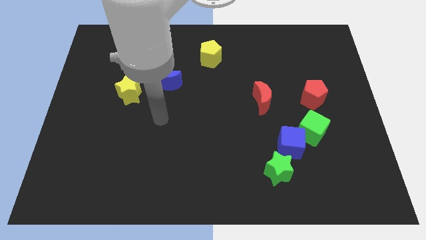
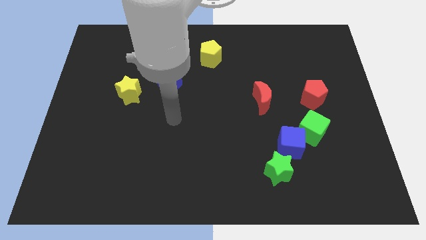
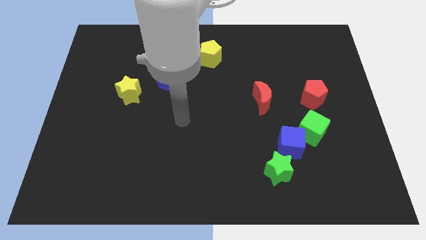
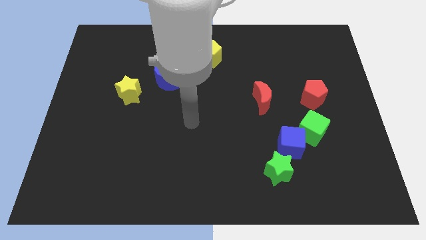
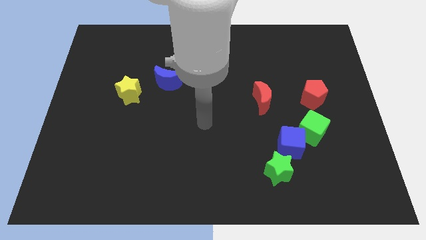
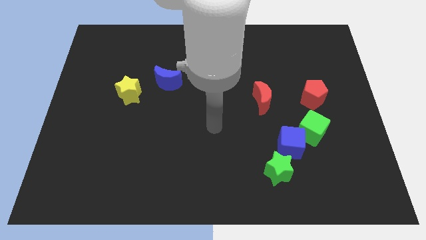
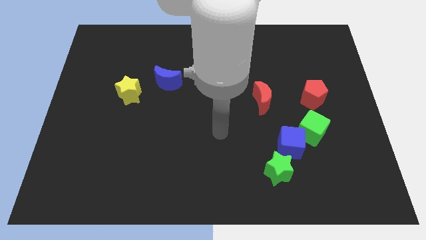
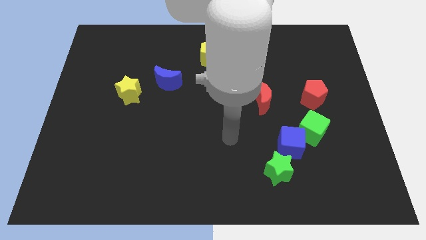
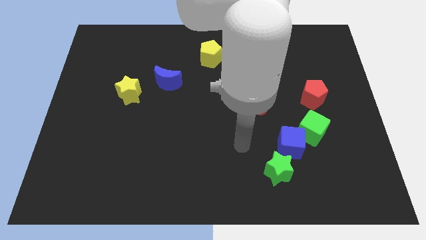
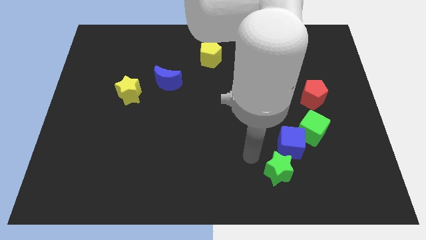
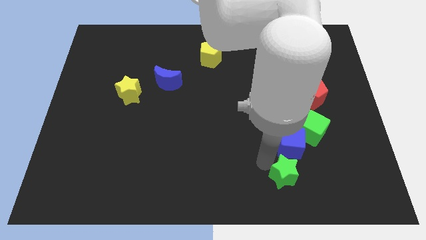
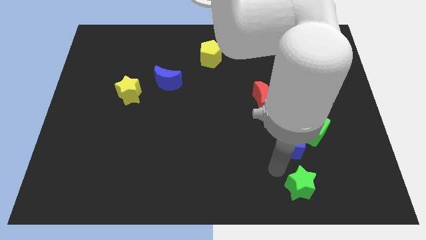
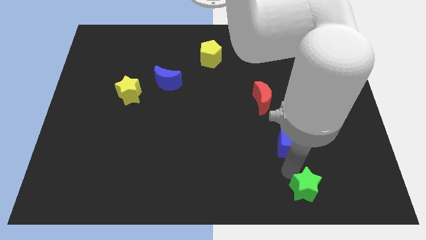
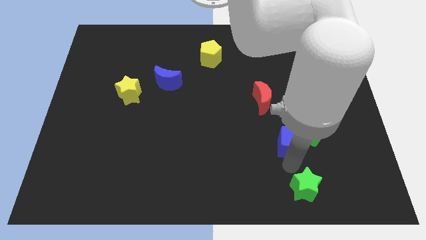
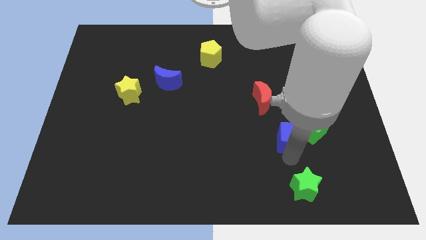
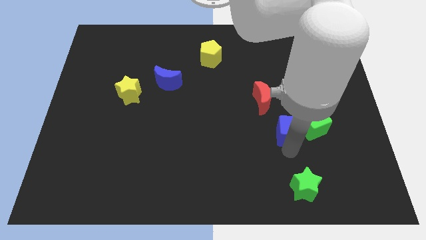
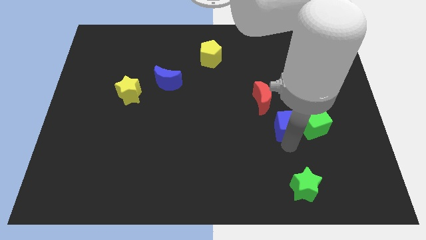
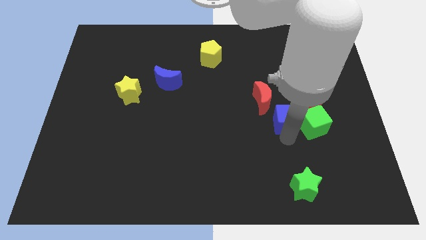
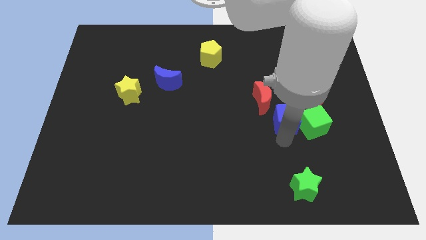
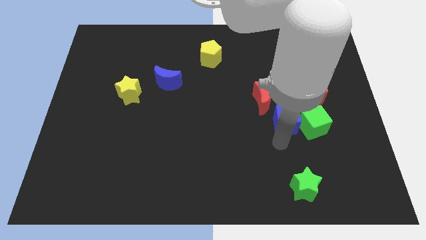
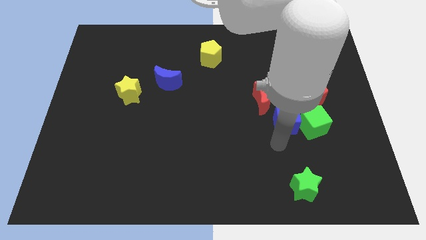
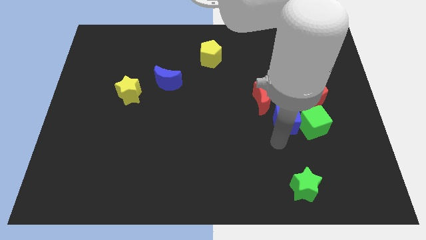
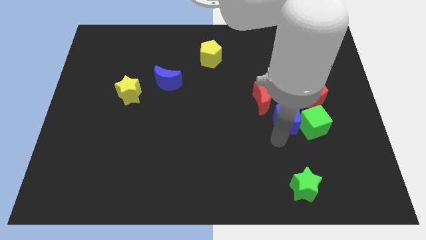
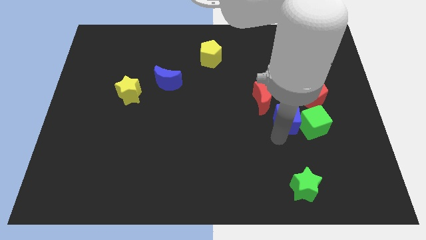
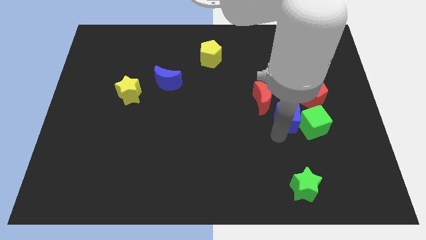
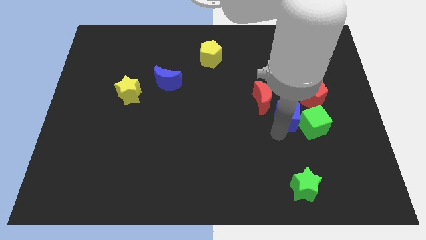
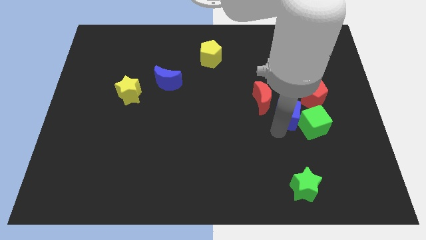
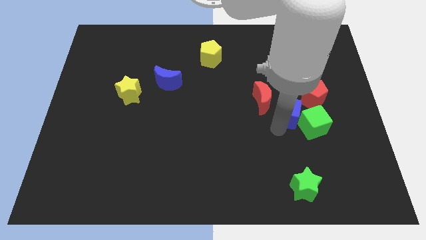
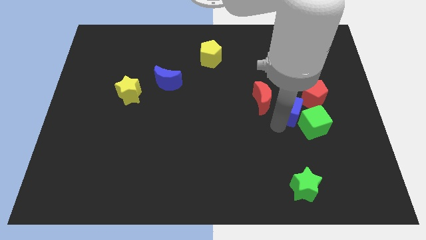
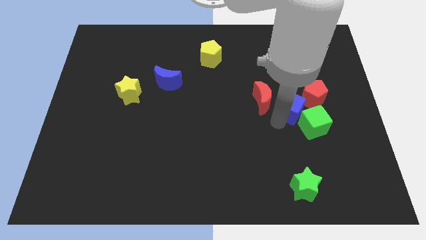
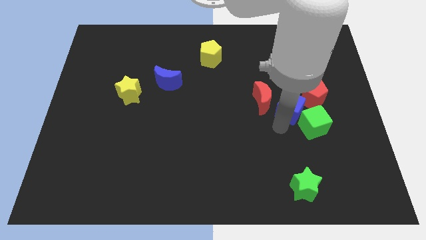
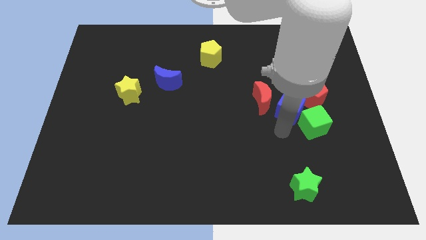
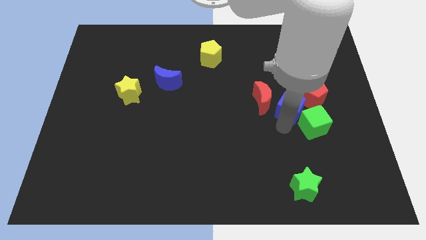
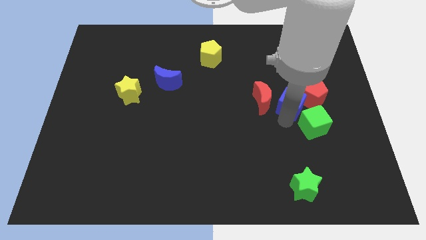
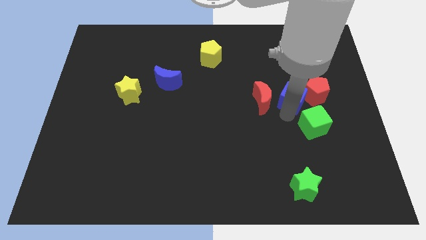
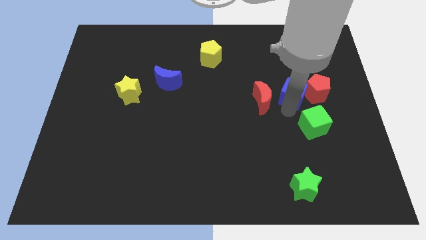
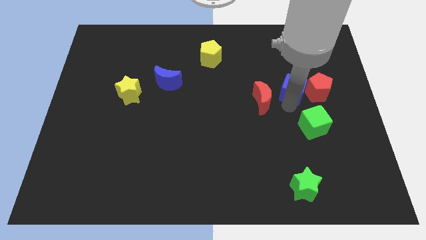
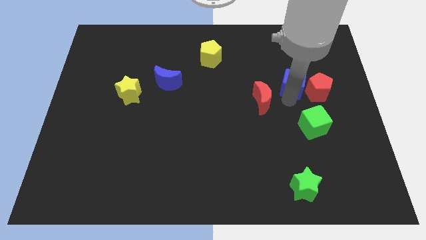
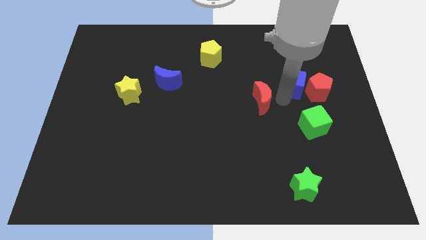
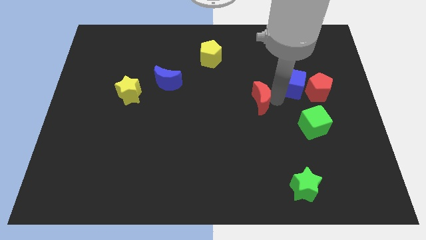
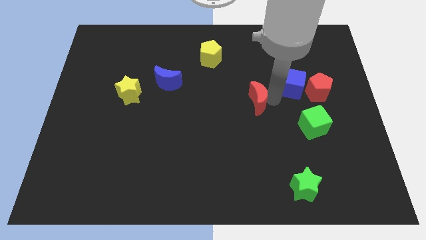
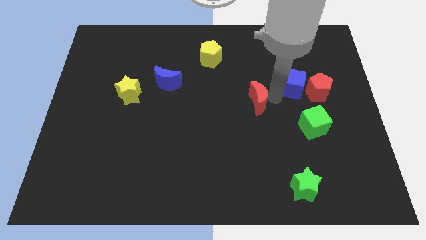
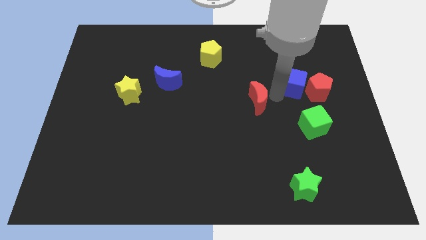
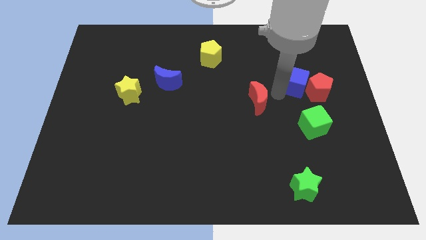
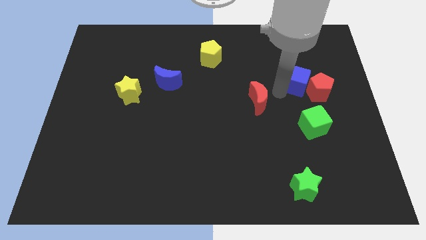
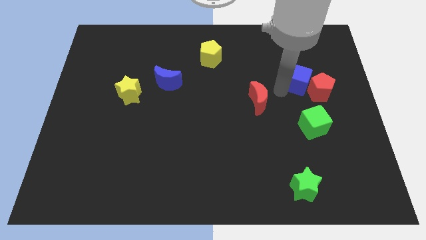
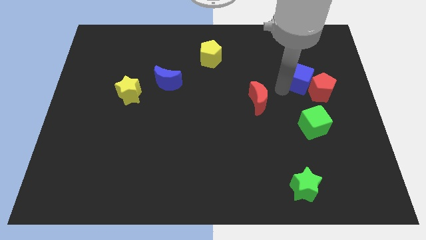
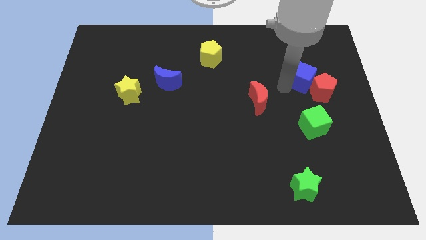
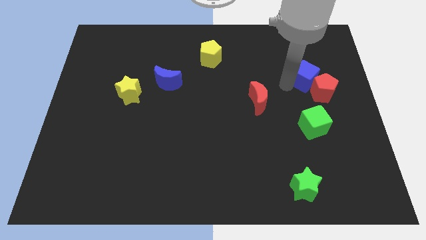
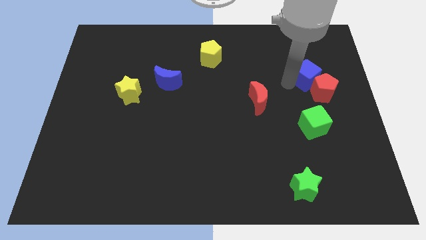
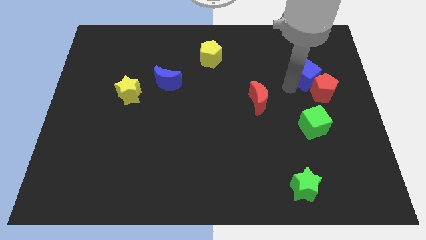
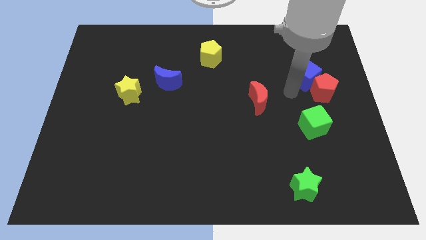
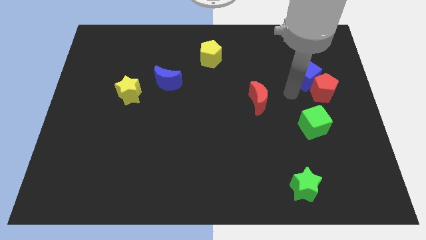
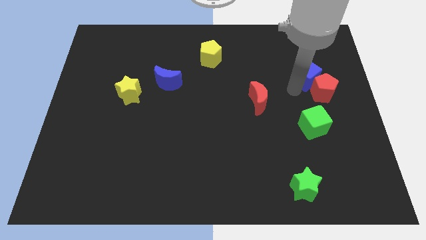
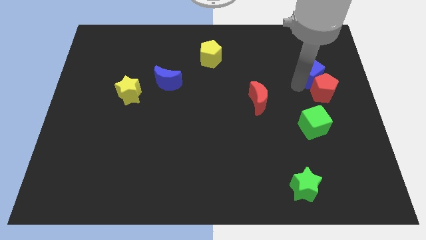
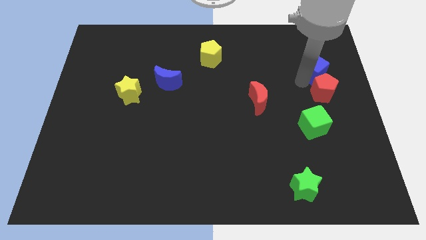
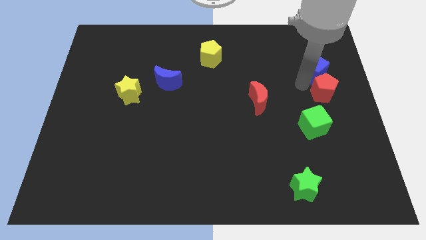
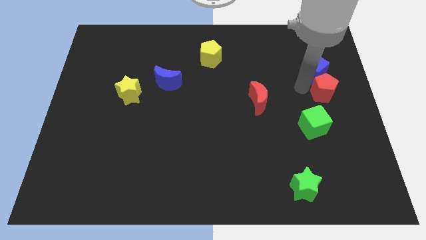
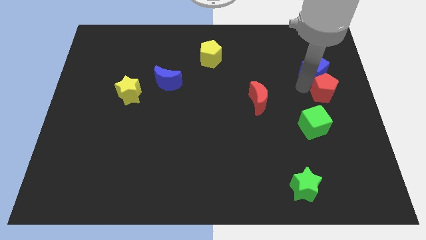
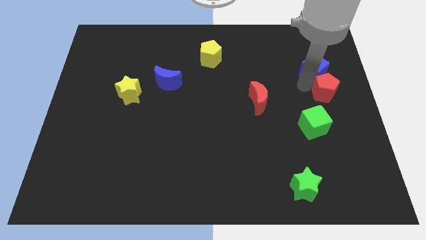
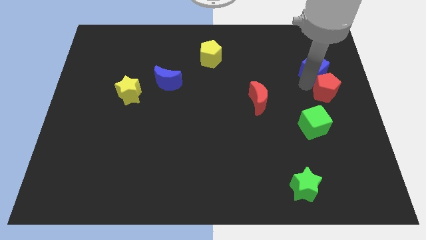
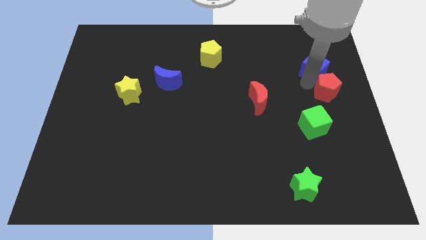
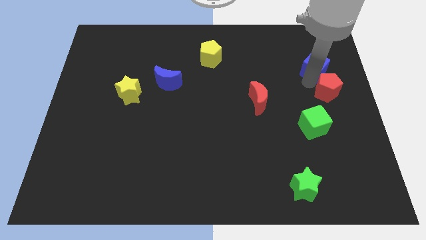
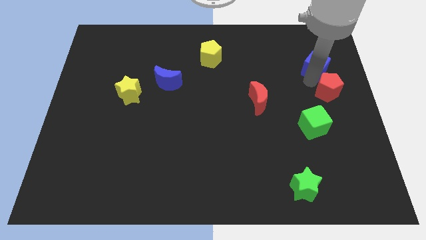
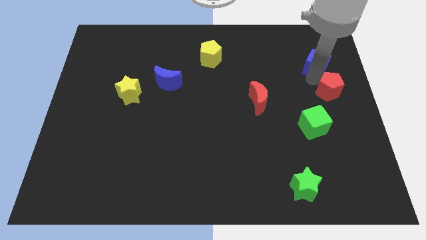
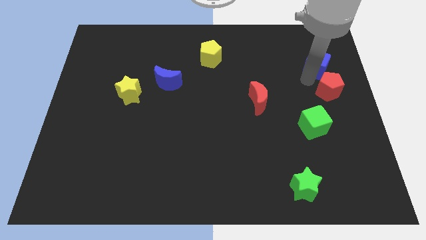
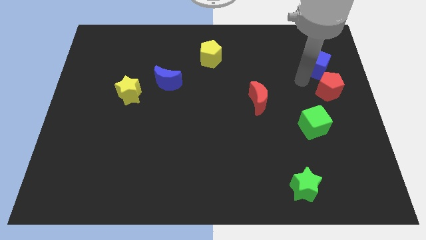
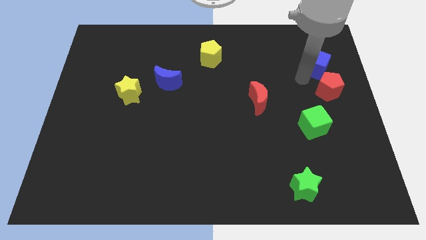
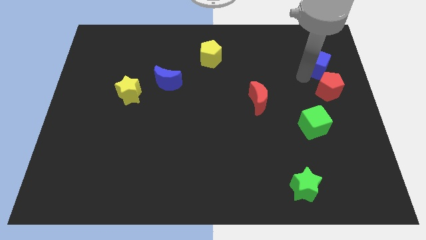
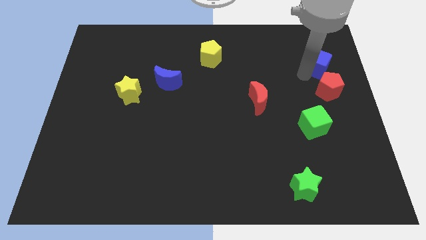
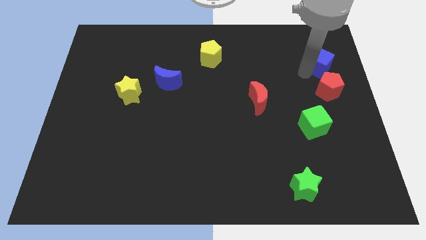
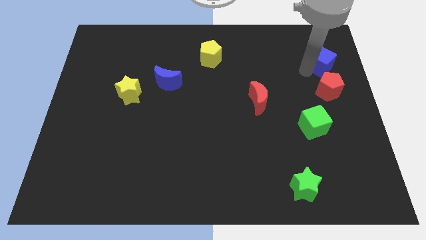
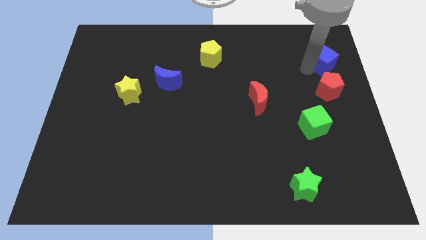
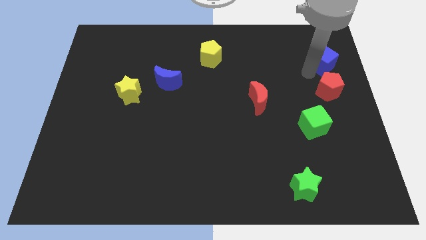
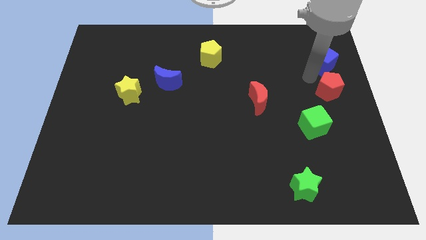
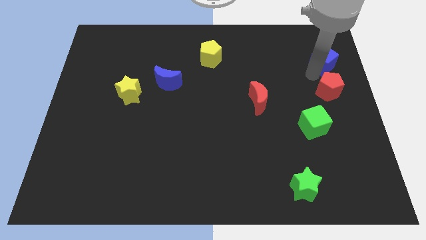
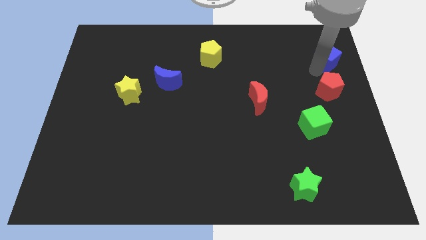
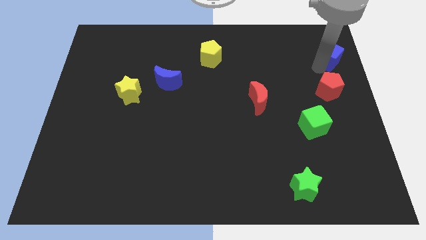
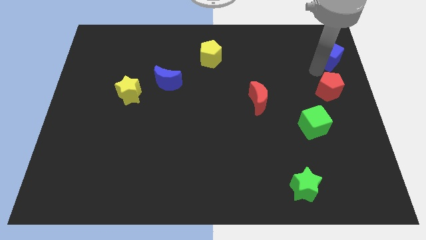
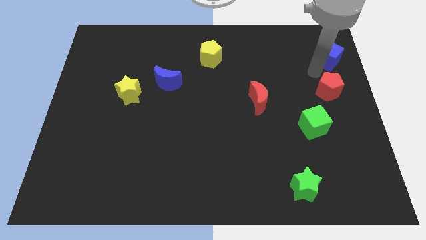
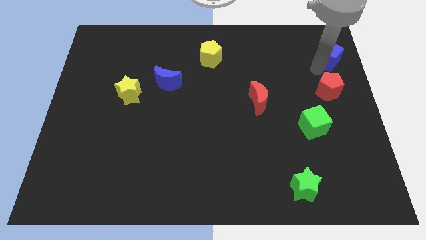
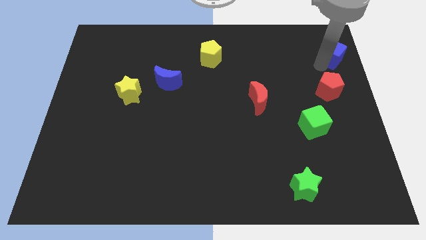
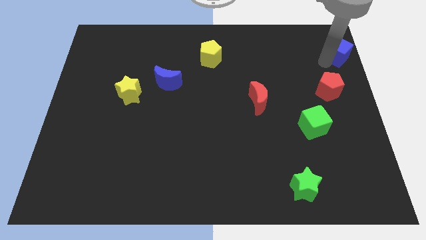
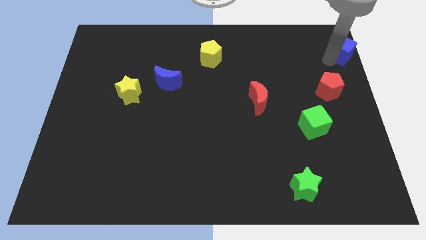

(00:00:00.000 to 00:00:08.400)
push the blue cube to the top right of the board
